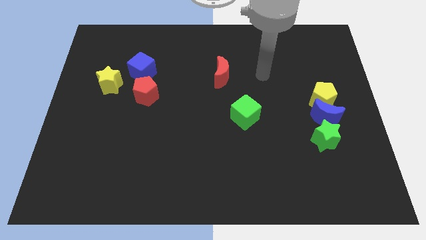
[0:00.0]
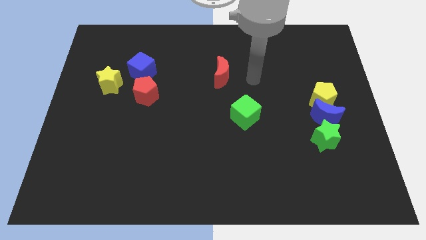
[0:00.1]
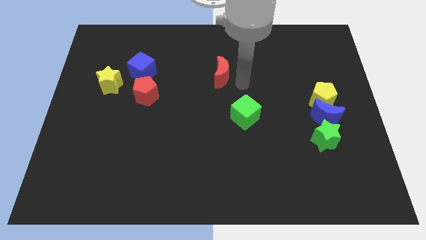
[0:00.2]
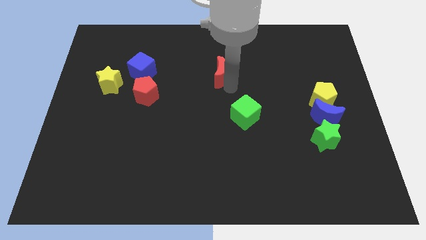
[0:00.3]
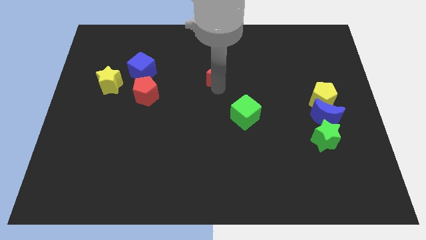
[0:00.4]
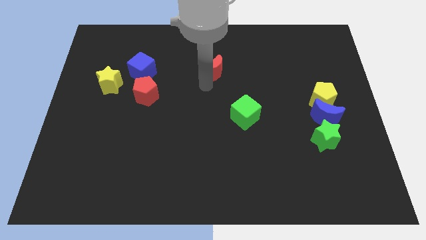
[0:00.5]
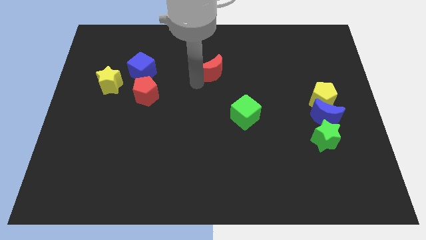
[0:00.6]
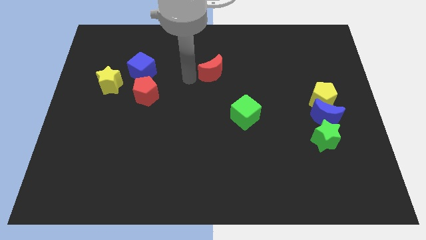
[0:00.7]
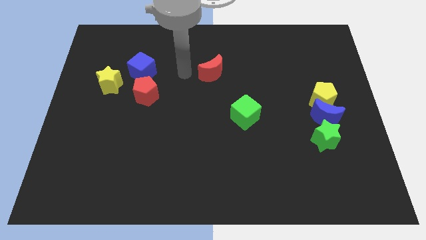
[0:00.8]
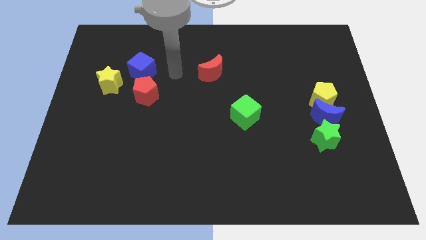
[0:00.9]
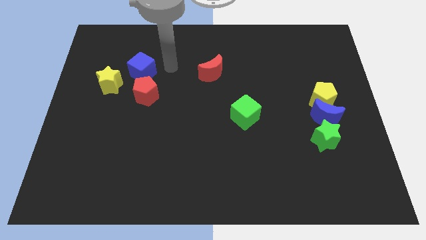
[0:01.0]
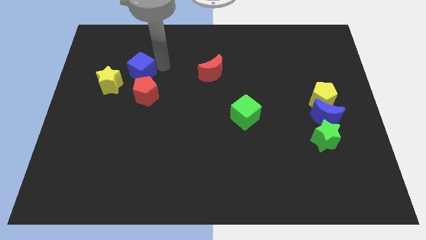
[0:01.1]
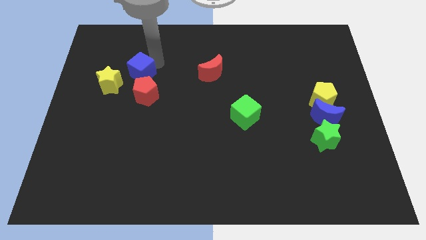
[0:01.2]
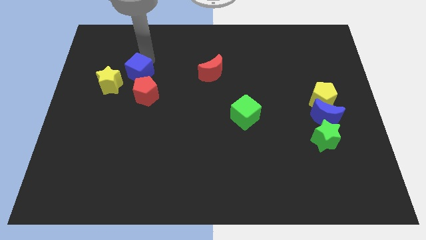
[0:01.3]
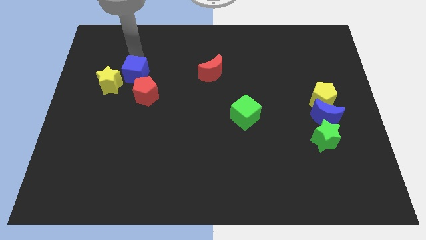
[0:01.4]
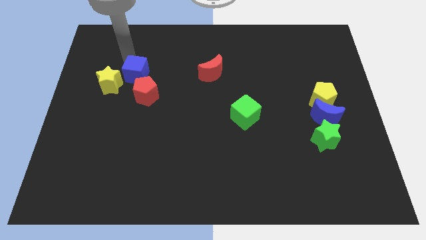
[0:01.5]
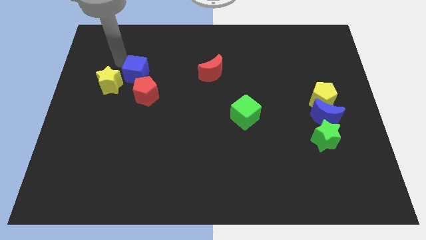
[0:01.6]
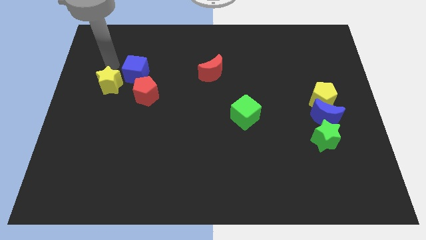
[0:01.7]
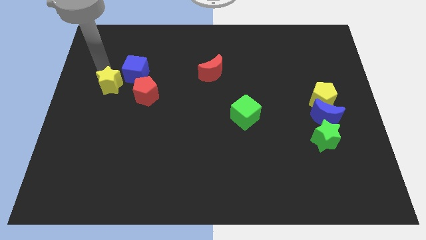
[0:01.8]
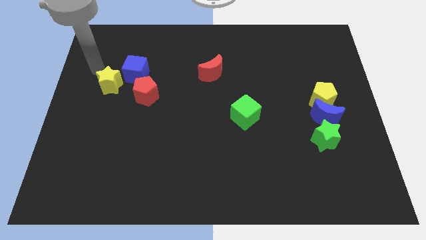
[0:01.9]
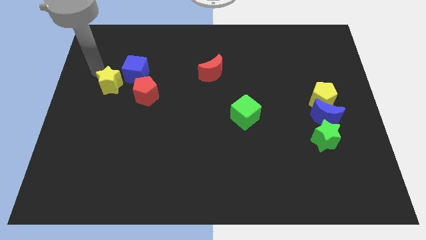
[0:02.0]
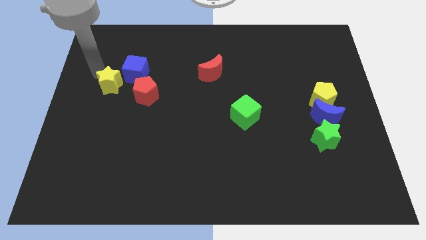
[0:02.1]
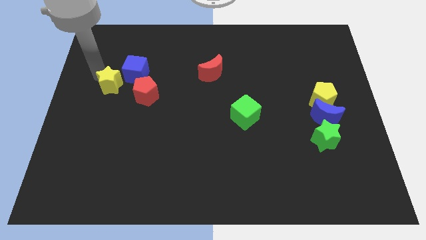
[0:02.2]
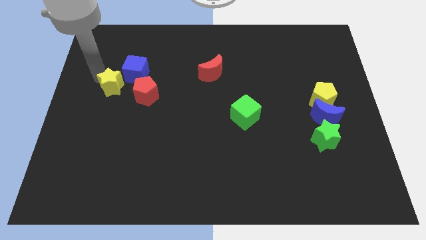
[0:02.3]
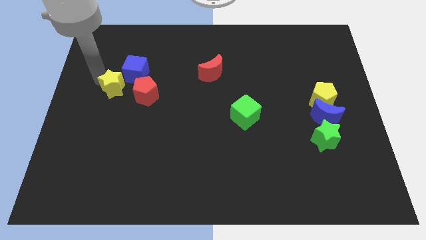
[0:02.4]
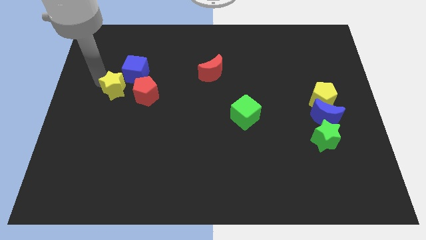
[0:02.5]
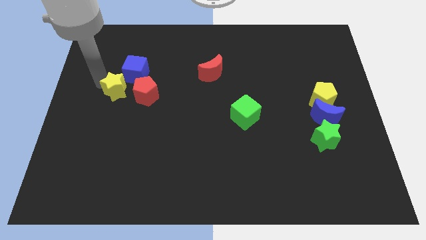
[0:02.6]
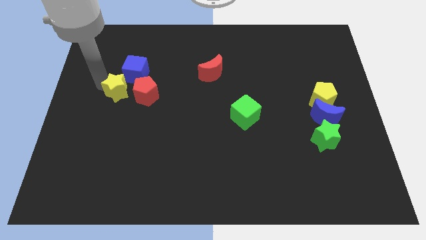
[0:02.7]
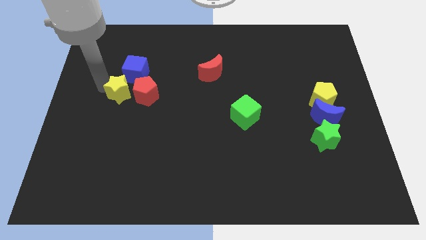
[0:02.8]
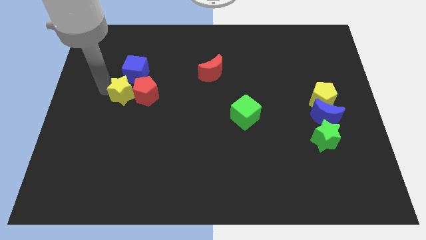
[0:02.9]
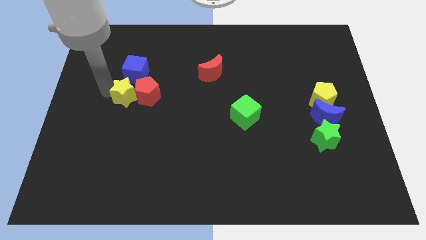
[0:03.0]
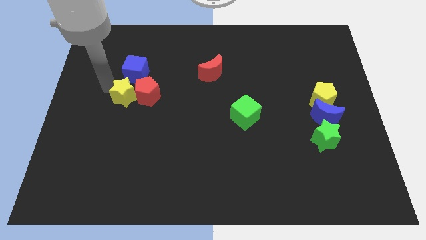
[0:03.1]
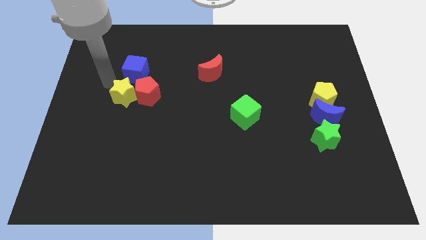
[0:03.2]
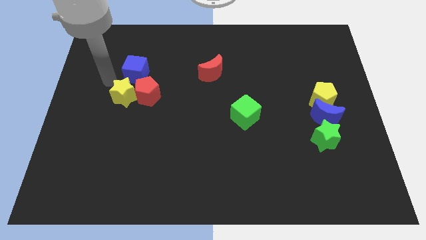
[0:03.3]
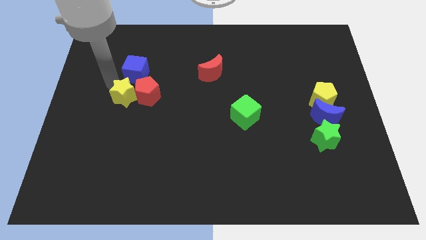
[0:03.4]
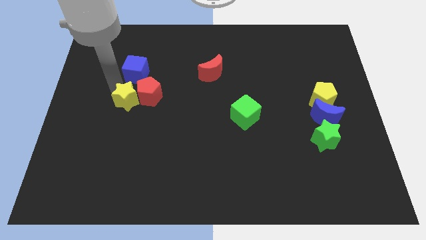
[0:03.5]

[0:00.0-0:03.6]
slightly move the yellow star down and right

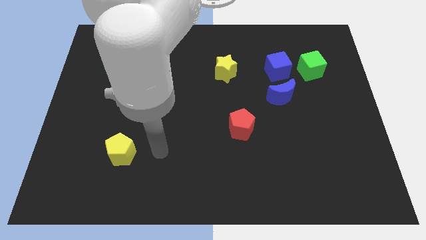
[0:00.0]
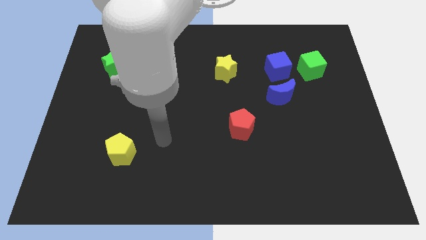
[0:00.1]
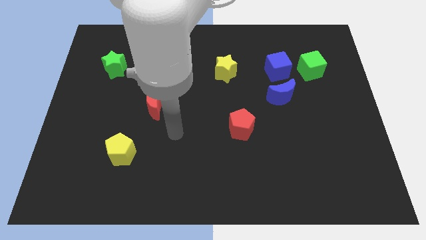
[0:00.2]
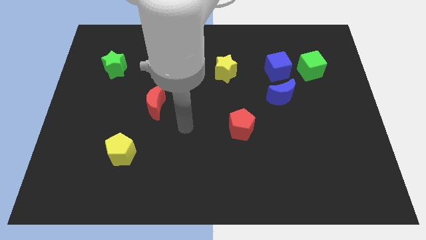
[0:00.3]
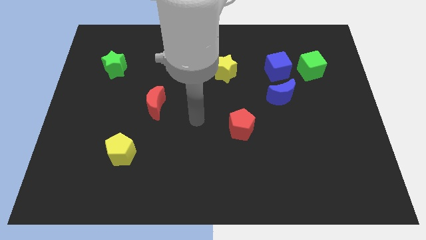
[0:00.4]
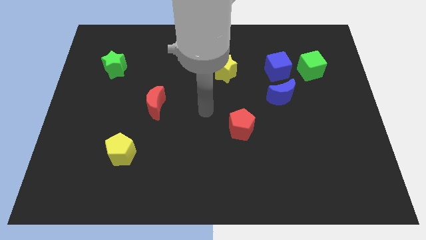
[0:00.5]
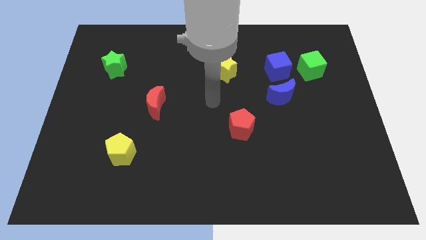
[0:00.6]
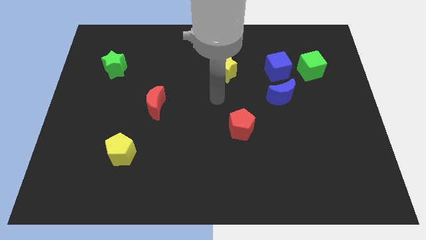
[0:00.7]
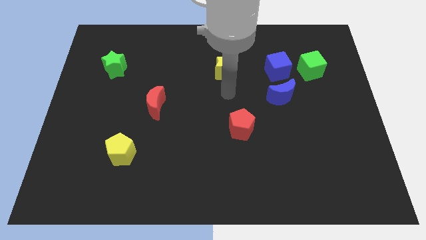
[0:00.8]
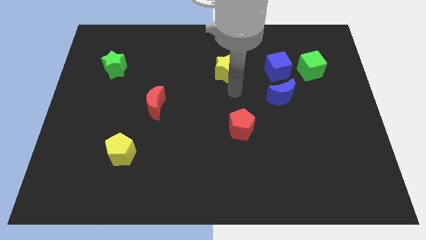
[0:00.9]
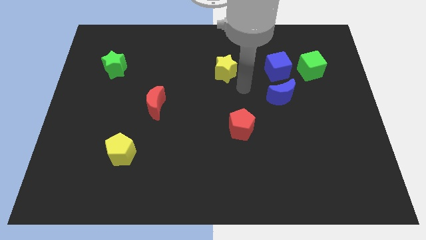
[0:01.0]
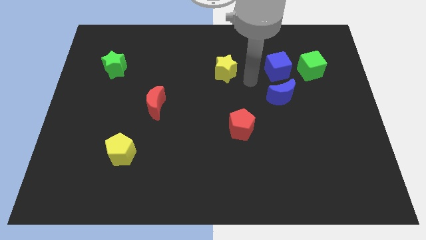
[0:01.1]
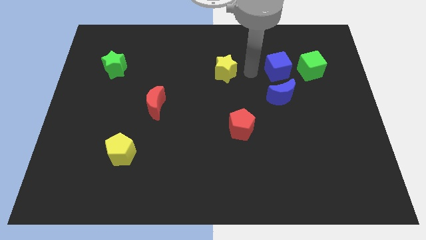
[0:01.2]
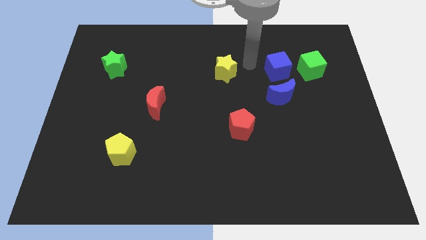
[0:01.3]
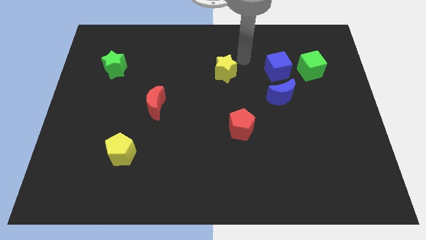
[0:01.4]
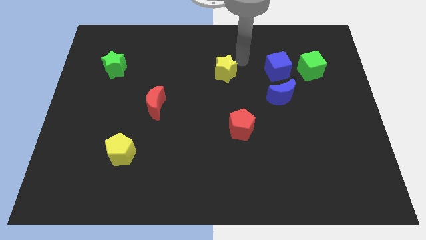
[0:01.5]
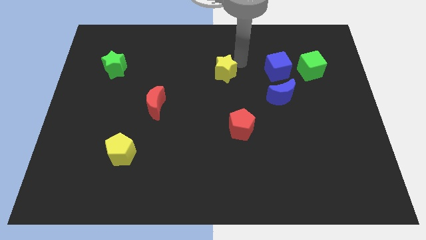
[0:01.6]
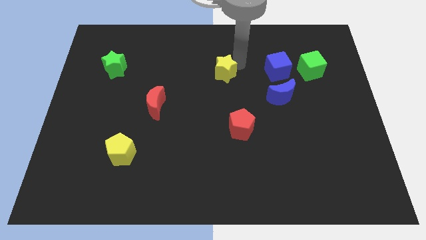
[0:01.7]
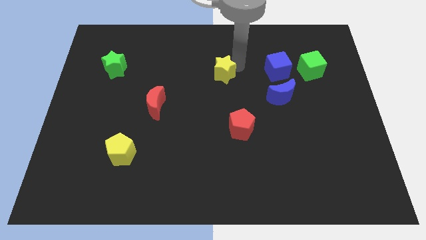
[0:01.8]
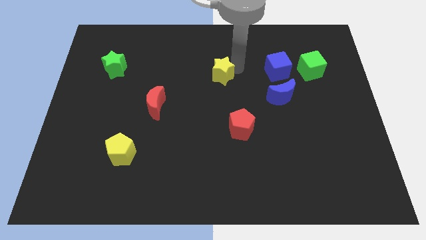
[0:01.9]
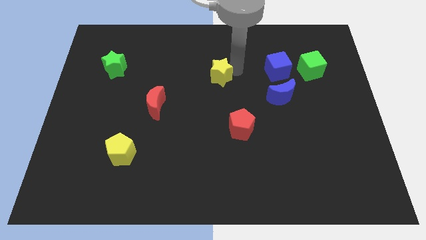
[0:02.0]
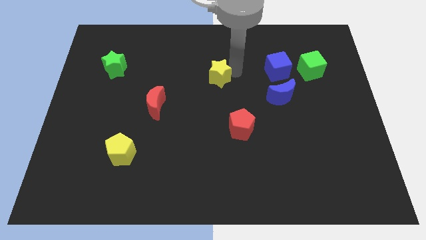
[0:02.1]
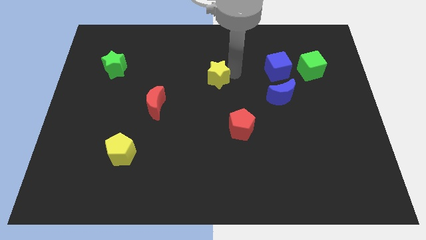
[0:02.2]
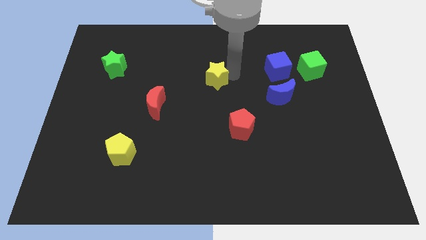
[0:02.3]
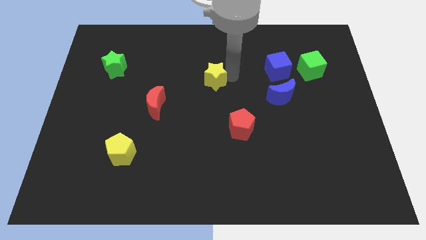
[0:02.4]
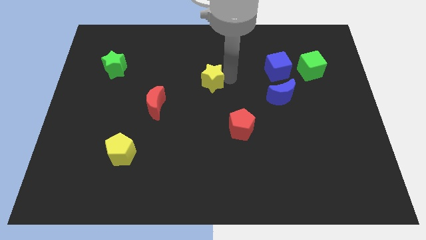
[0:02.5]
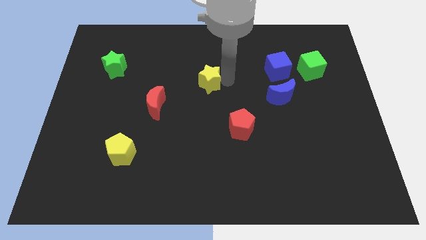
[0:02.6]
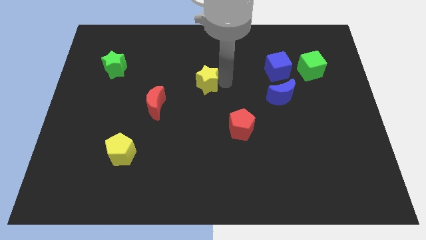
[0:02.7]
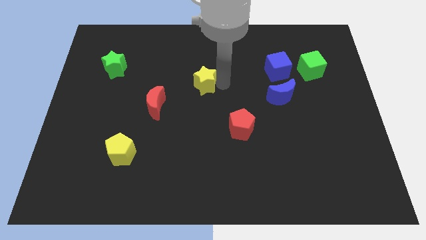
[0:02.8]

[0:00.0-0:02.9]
slightly move the yellow star downwards and left

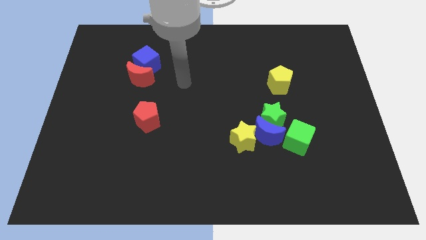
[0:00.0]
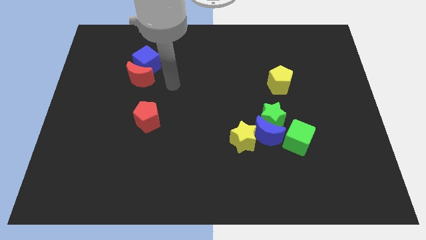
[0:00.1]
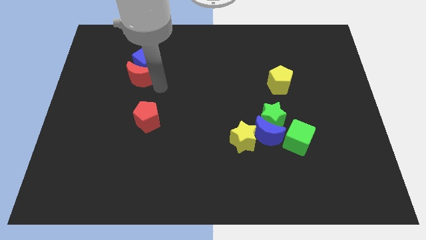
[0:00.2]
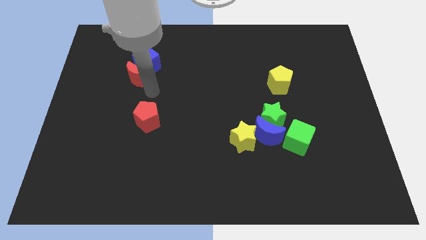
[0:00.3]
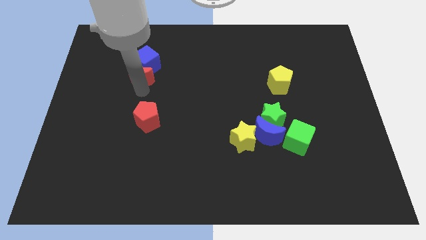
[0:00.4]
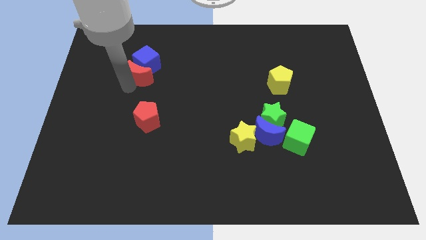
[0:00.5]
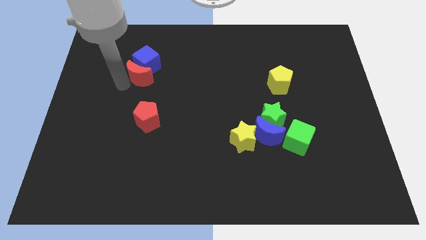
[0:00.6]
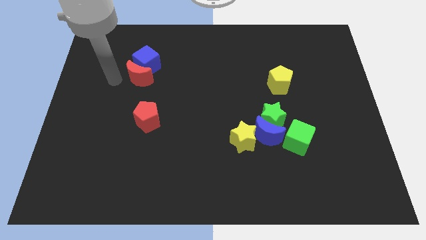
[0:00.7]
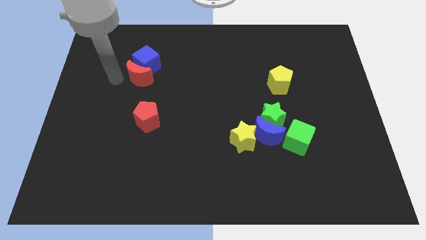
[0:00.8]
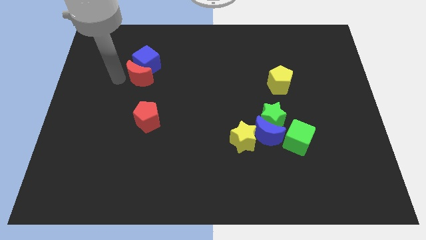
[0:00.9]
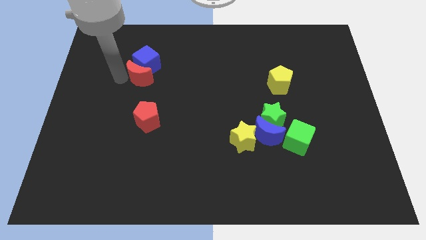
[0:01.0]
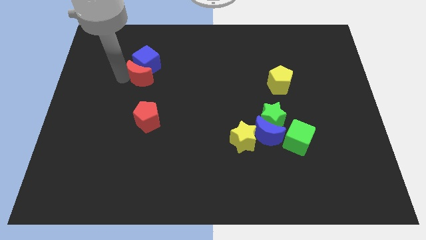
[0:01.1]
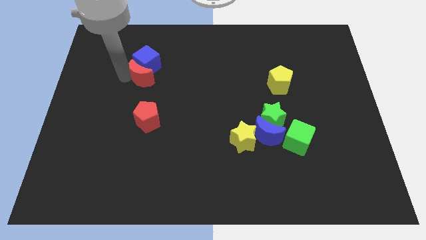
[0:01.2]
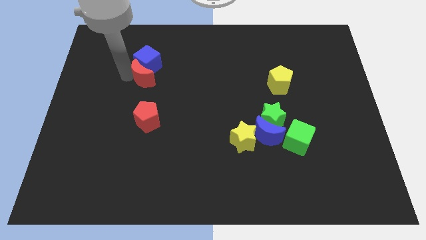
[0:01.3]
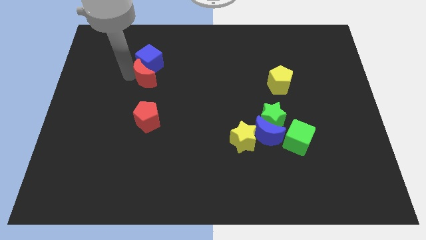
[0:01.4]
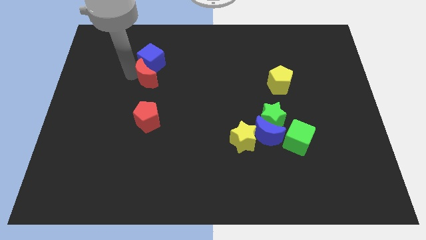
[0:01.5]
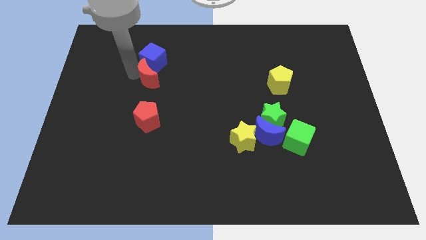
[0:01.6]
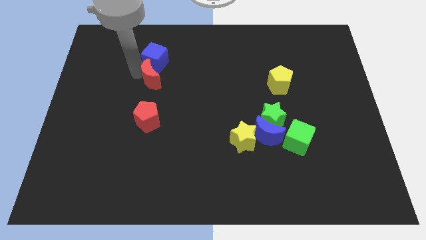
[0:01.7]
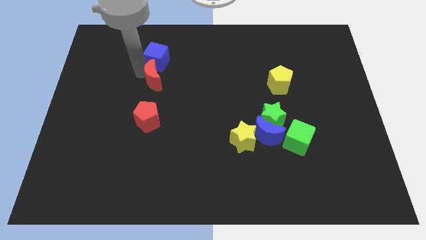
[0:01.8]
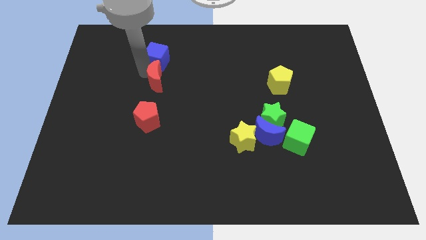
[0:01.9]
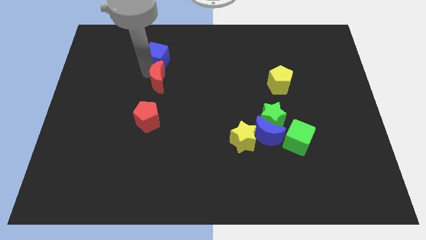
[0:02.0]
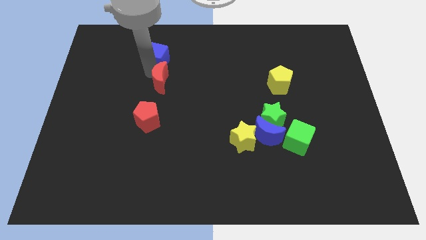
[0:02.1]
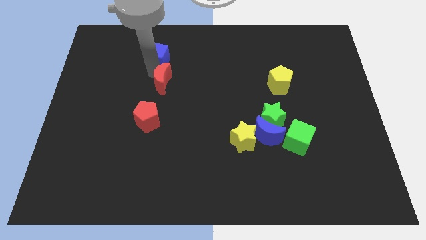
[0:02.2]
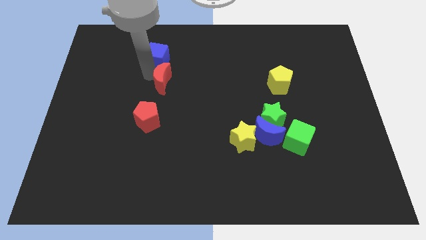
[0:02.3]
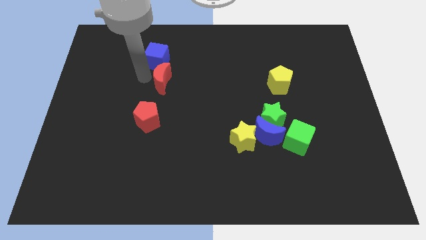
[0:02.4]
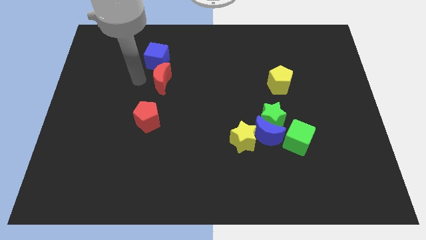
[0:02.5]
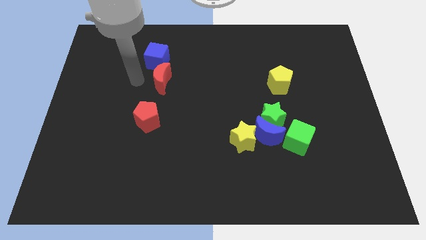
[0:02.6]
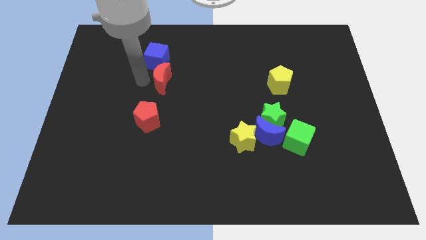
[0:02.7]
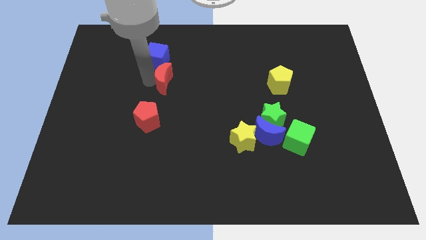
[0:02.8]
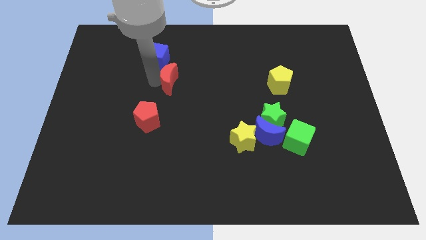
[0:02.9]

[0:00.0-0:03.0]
push the red moon right a little bit
